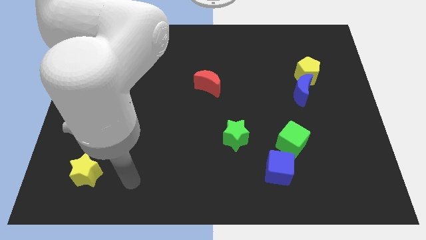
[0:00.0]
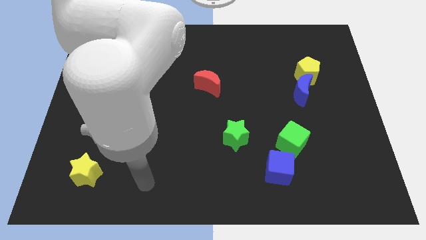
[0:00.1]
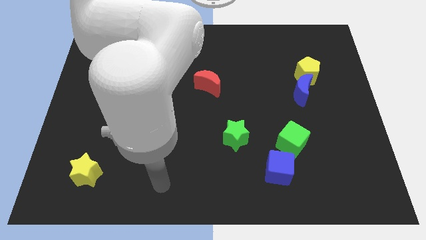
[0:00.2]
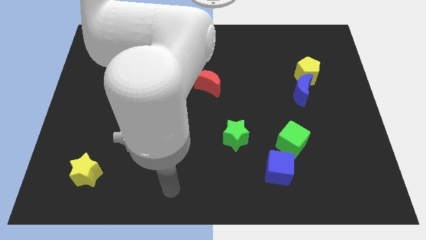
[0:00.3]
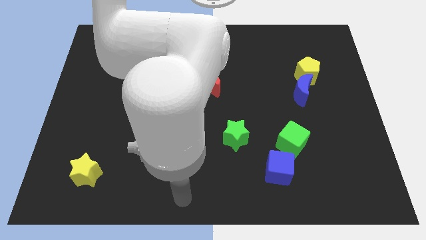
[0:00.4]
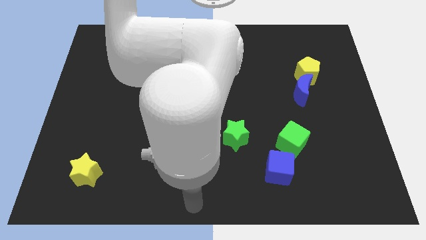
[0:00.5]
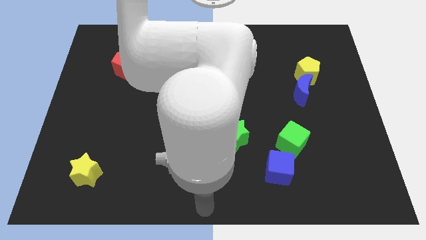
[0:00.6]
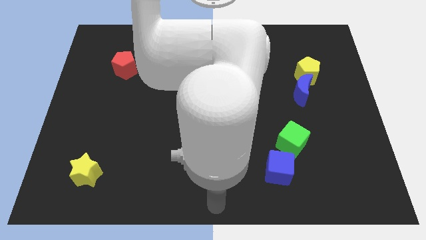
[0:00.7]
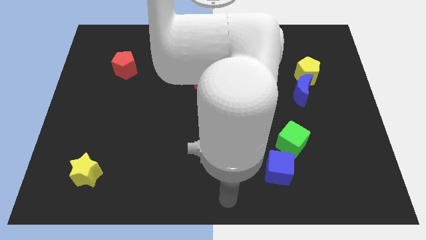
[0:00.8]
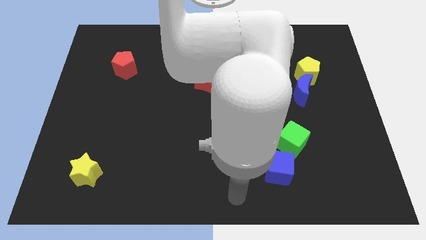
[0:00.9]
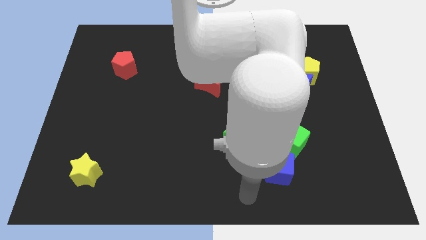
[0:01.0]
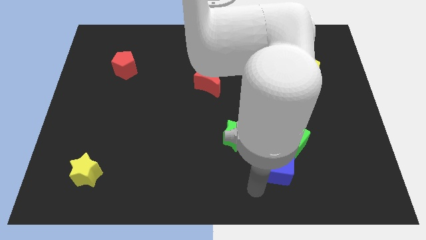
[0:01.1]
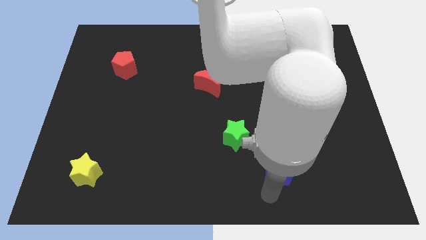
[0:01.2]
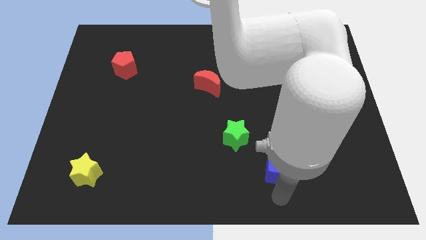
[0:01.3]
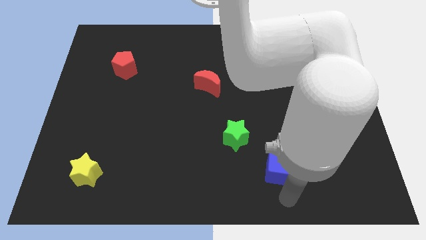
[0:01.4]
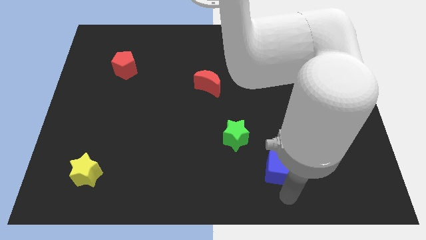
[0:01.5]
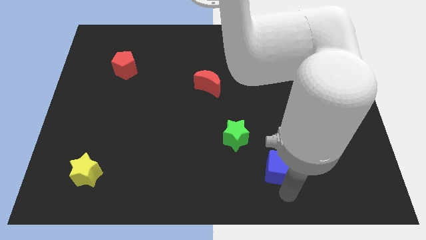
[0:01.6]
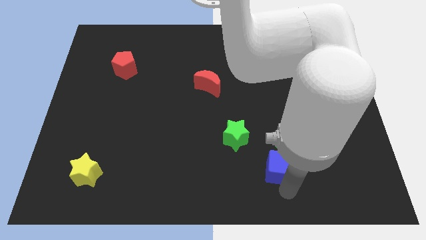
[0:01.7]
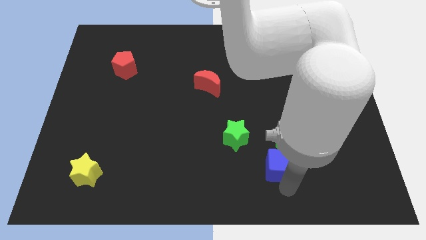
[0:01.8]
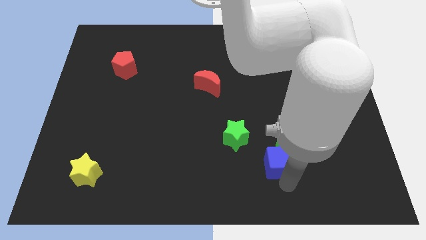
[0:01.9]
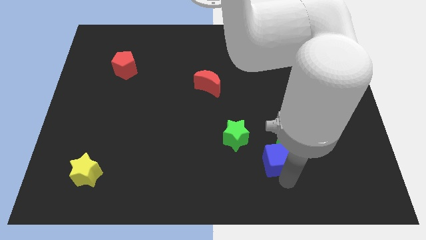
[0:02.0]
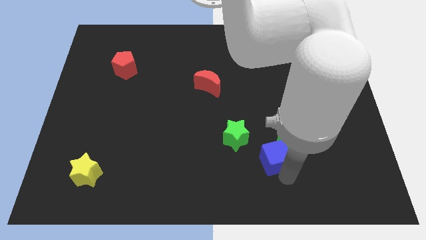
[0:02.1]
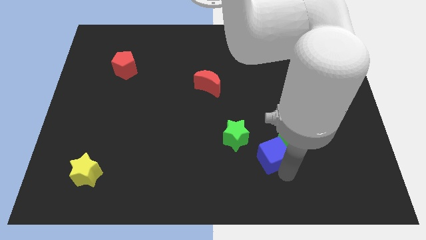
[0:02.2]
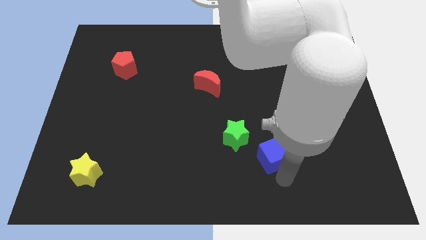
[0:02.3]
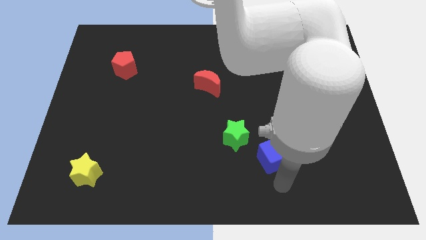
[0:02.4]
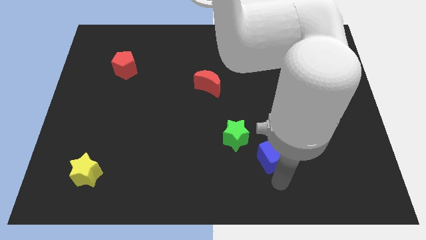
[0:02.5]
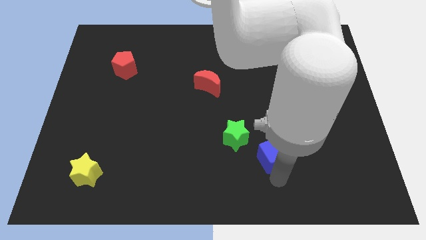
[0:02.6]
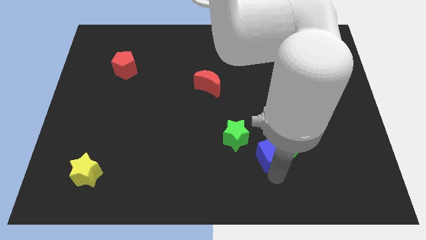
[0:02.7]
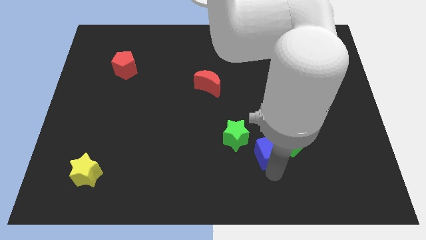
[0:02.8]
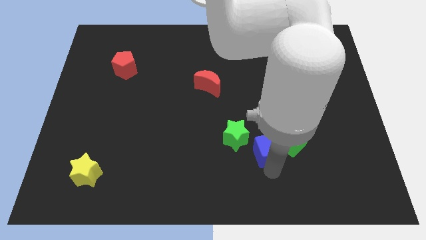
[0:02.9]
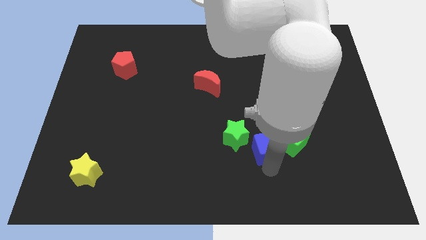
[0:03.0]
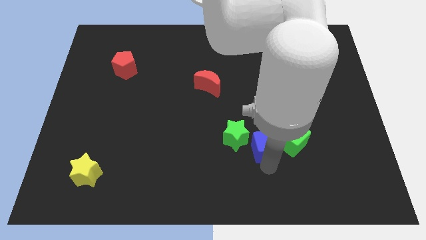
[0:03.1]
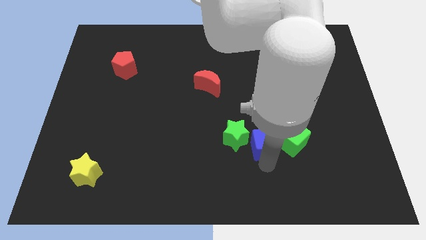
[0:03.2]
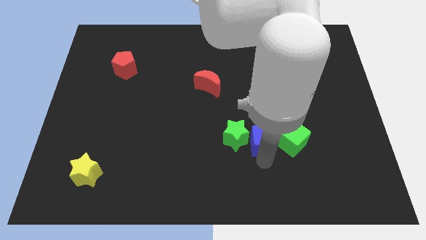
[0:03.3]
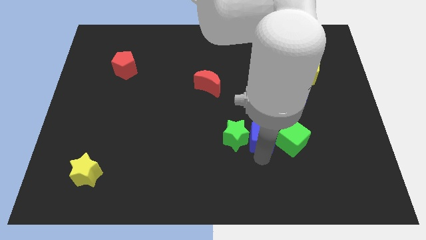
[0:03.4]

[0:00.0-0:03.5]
slightly push the blue cube up

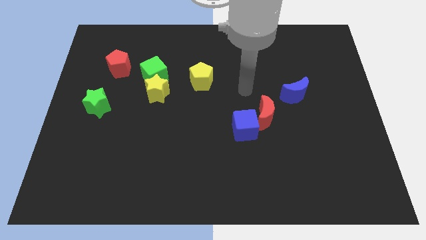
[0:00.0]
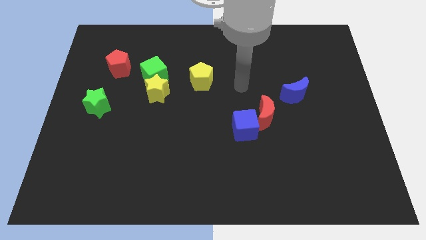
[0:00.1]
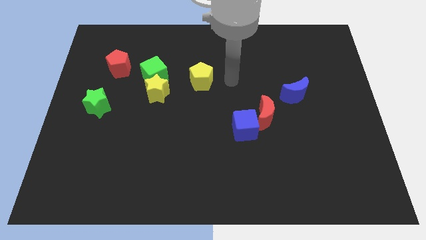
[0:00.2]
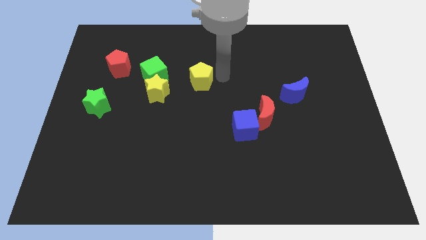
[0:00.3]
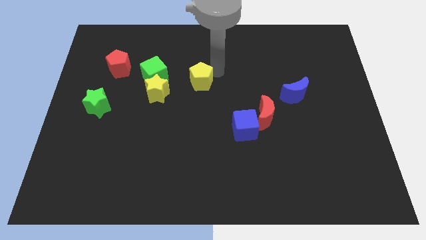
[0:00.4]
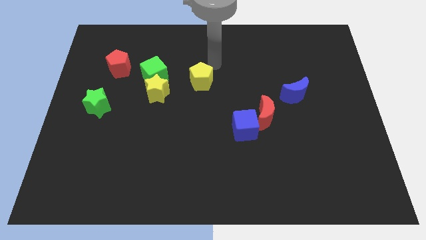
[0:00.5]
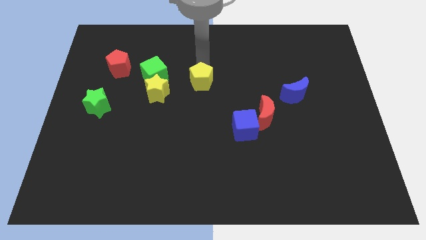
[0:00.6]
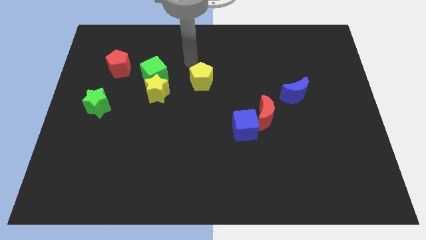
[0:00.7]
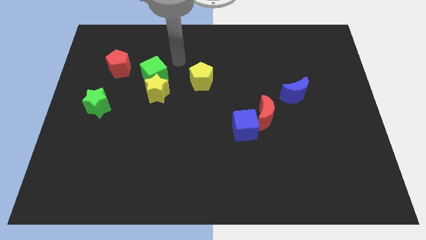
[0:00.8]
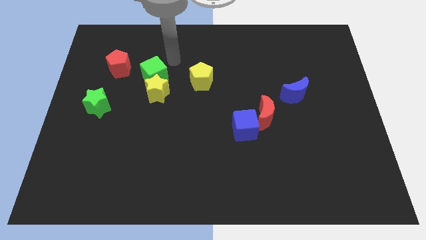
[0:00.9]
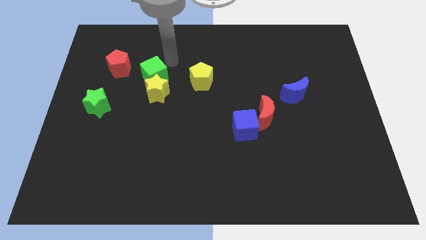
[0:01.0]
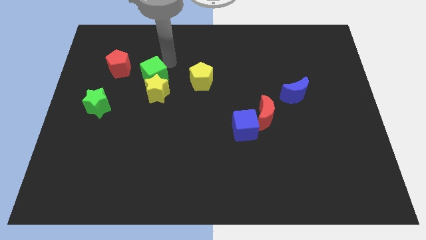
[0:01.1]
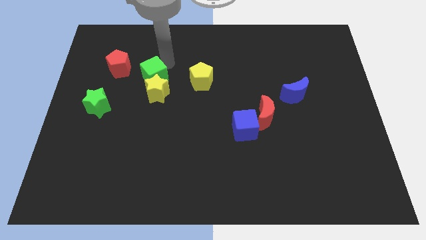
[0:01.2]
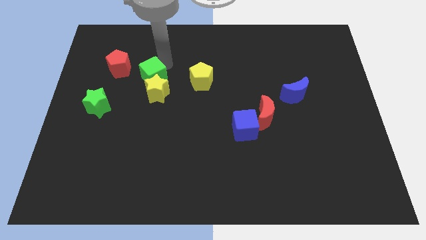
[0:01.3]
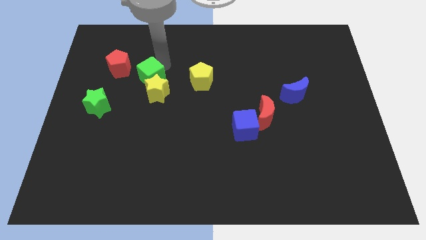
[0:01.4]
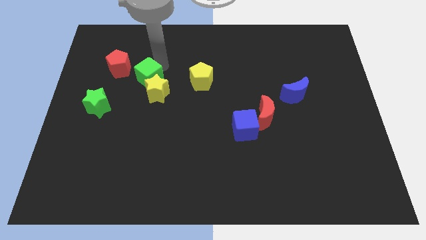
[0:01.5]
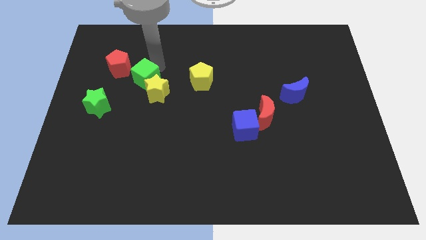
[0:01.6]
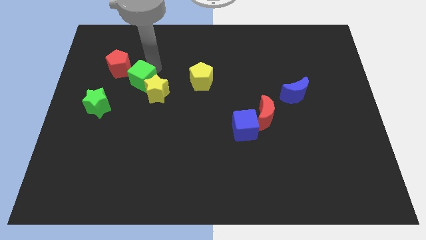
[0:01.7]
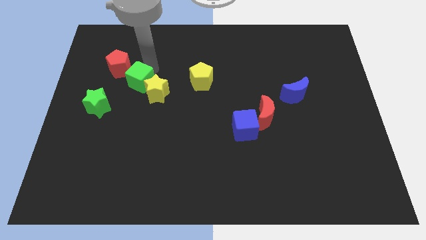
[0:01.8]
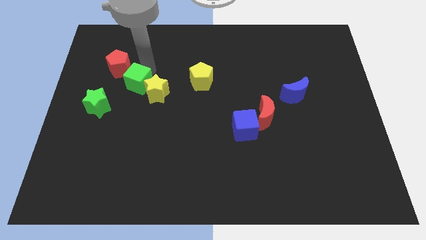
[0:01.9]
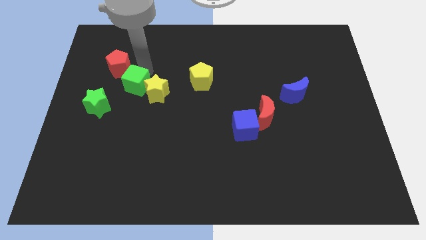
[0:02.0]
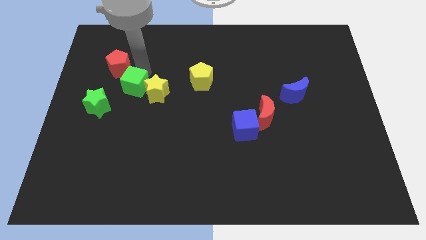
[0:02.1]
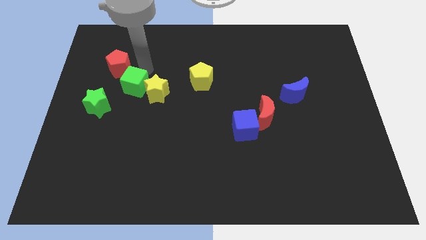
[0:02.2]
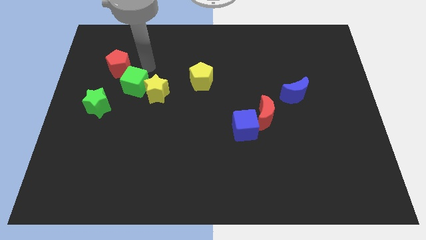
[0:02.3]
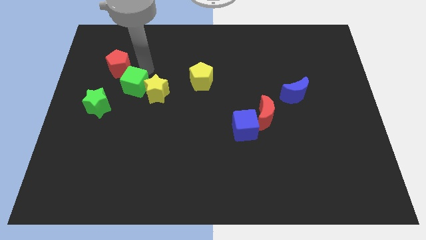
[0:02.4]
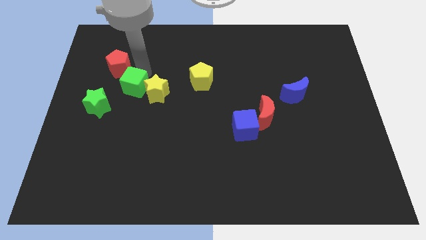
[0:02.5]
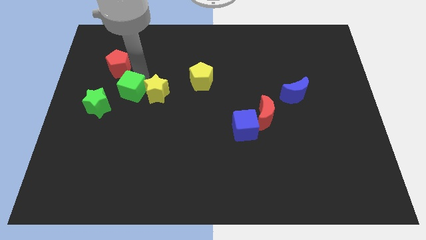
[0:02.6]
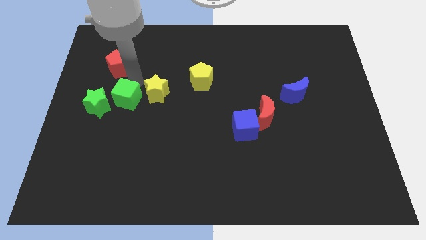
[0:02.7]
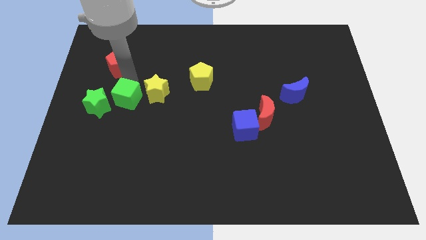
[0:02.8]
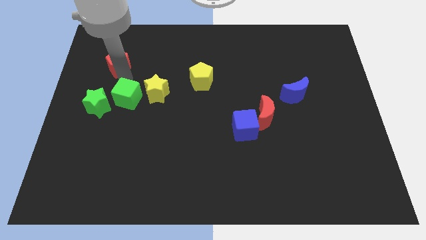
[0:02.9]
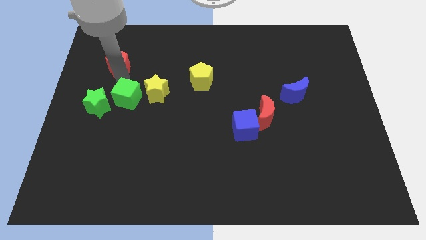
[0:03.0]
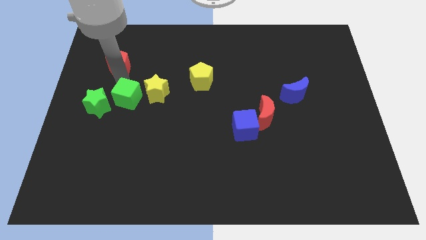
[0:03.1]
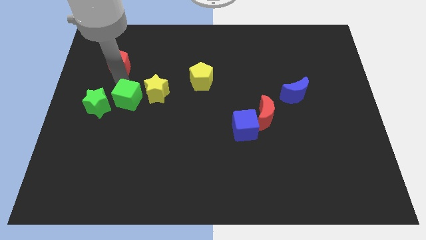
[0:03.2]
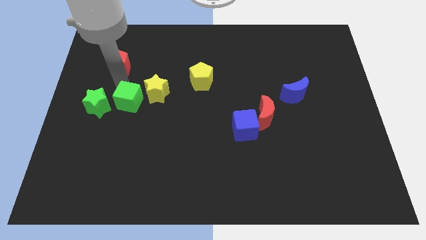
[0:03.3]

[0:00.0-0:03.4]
move the green cube slightly down

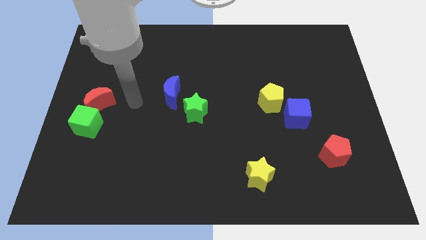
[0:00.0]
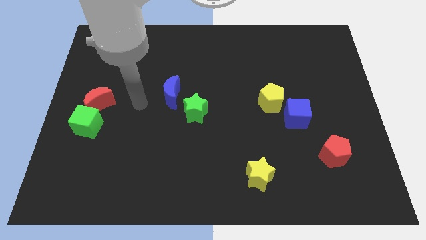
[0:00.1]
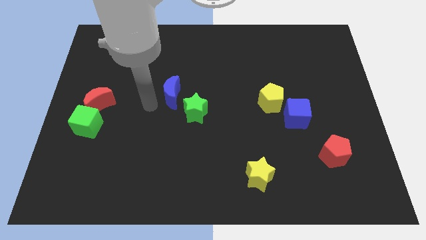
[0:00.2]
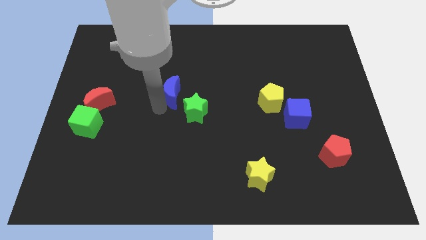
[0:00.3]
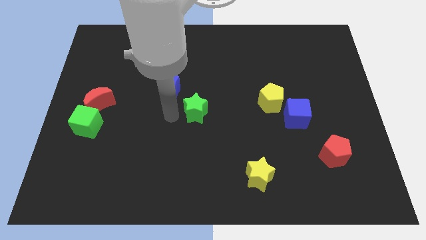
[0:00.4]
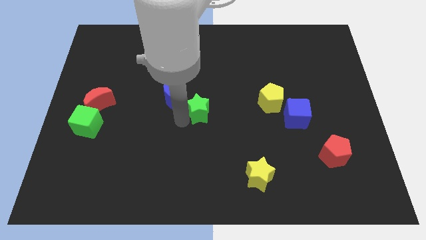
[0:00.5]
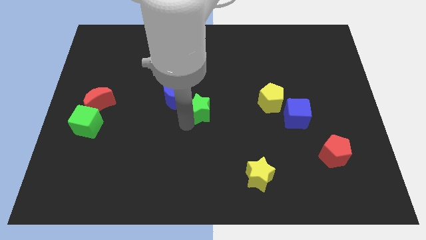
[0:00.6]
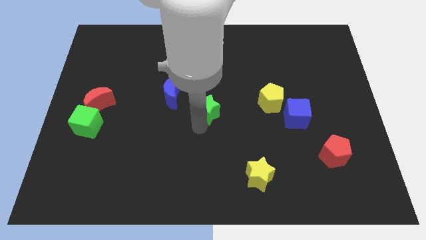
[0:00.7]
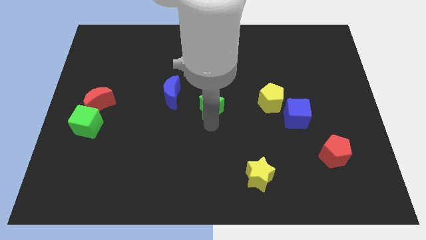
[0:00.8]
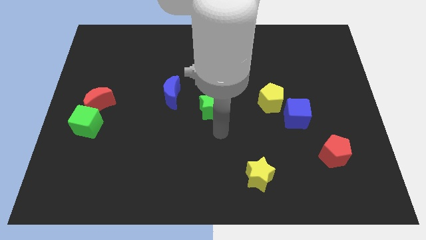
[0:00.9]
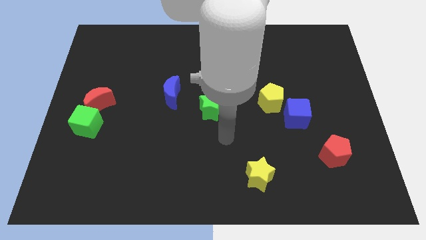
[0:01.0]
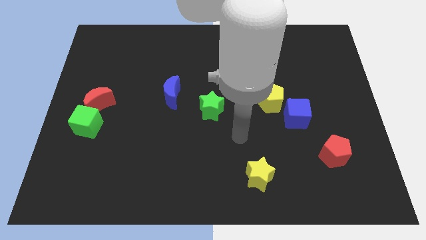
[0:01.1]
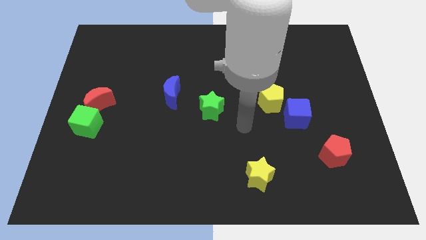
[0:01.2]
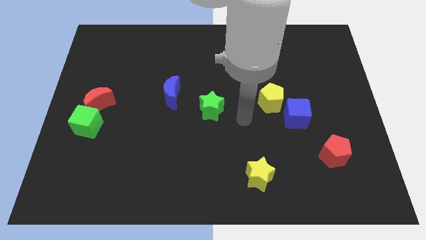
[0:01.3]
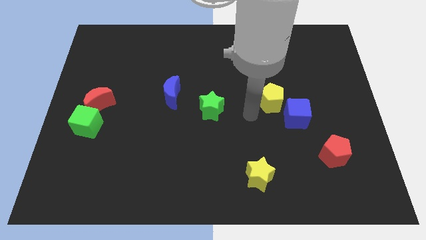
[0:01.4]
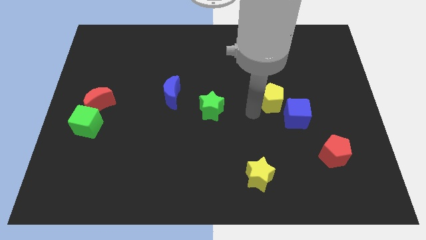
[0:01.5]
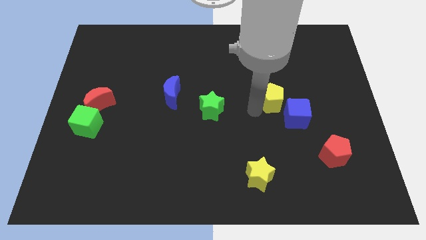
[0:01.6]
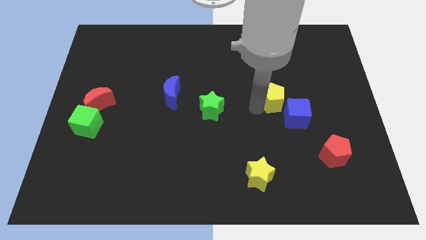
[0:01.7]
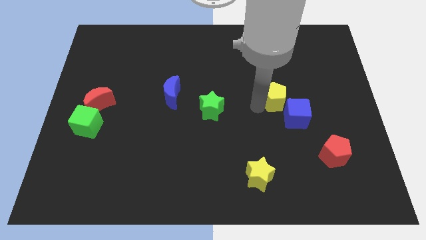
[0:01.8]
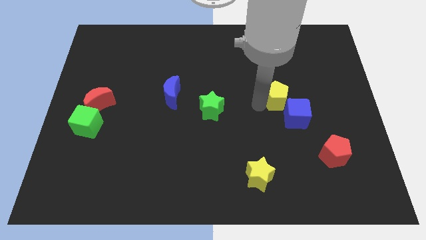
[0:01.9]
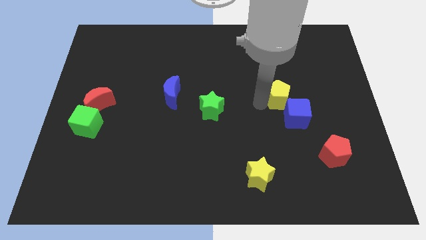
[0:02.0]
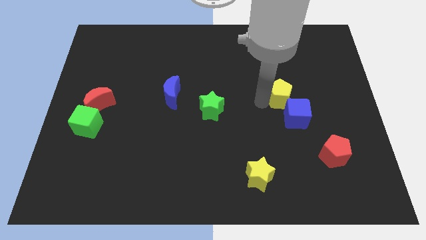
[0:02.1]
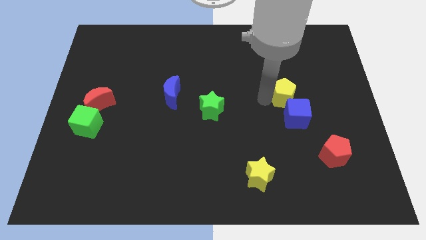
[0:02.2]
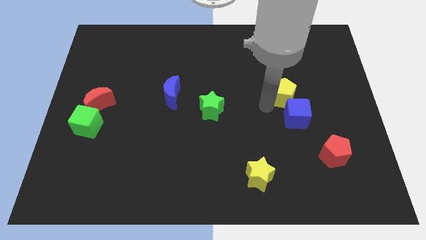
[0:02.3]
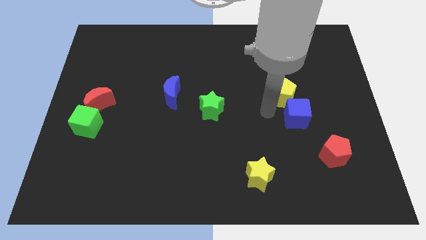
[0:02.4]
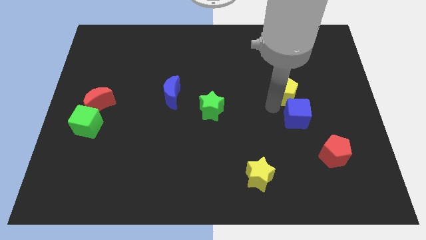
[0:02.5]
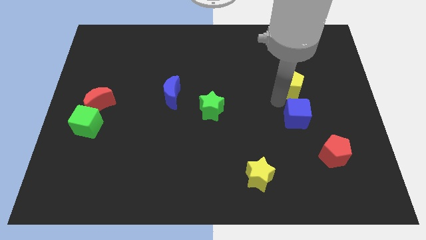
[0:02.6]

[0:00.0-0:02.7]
slide the yellow pentagon upwards and then right slightly
